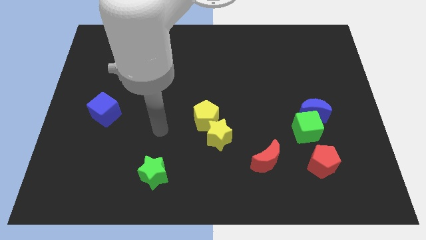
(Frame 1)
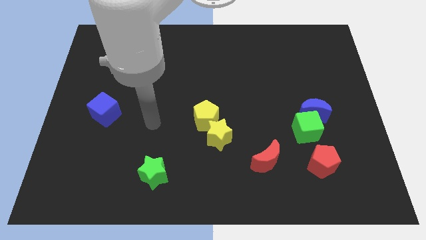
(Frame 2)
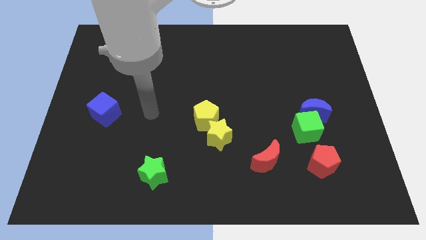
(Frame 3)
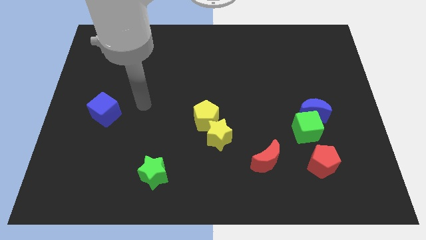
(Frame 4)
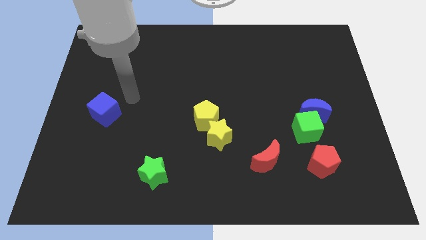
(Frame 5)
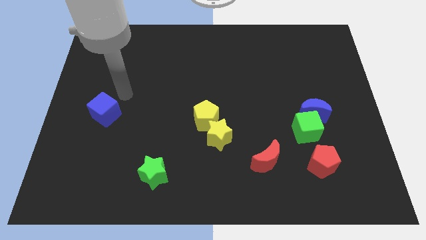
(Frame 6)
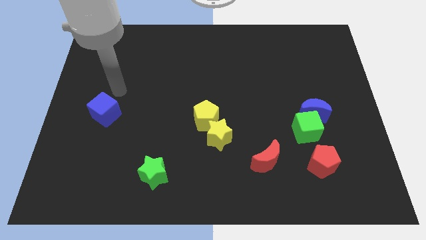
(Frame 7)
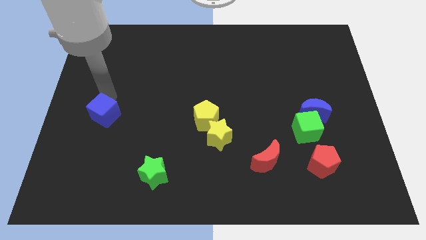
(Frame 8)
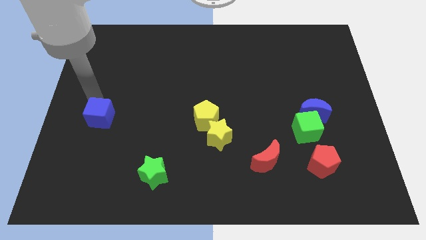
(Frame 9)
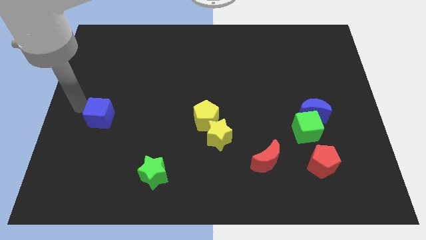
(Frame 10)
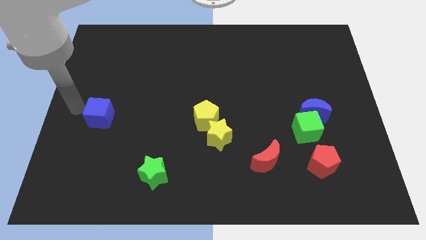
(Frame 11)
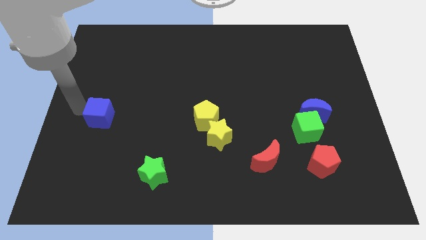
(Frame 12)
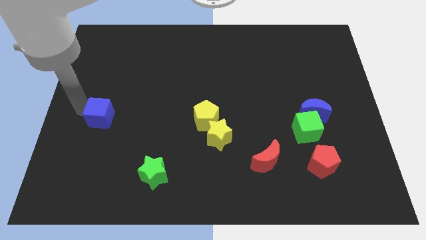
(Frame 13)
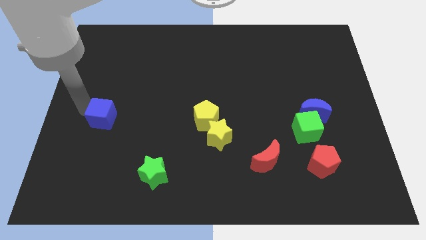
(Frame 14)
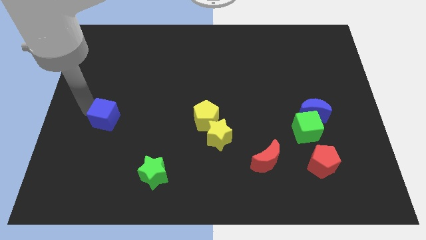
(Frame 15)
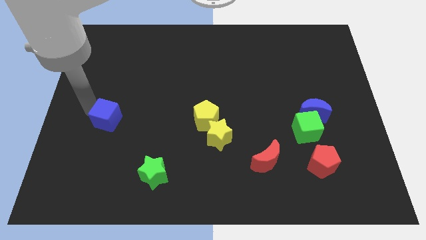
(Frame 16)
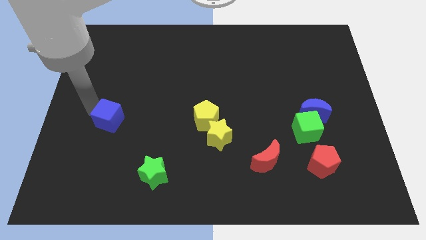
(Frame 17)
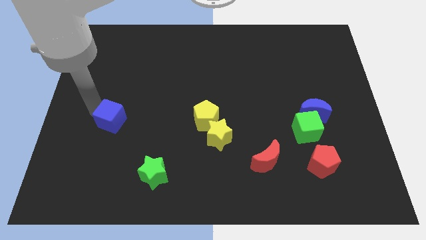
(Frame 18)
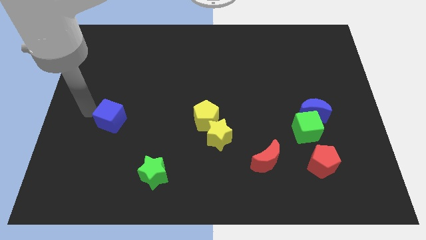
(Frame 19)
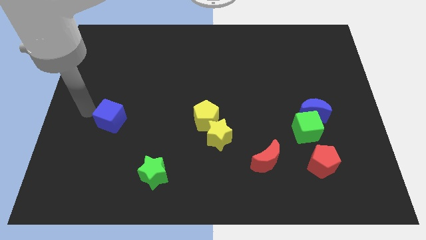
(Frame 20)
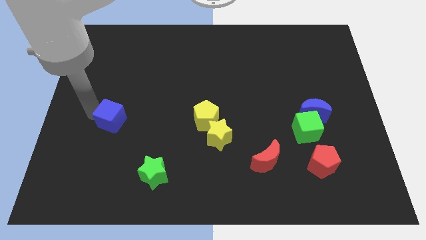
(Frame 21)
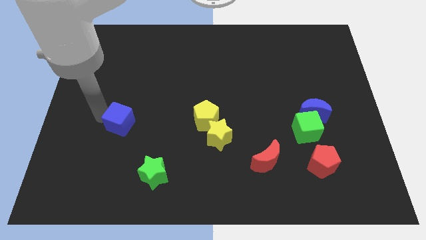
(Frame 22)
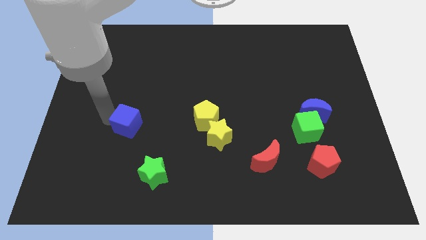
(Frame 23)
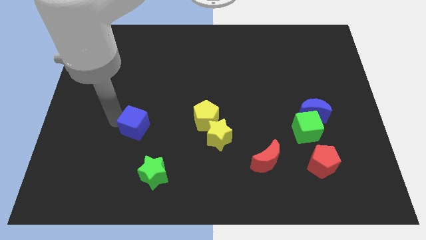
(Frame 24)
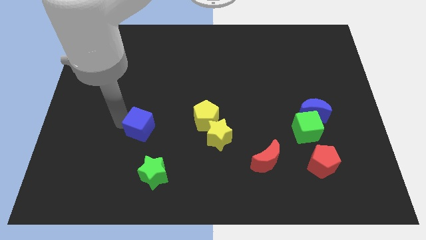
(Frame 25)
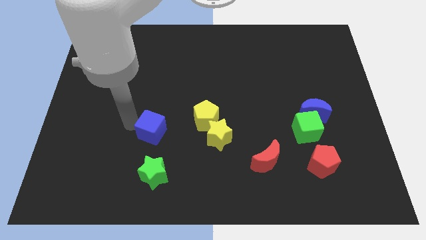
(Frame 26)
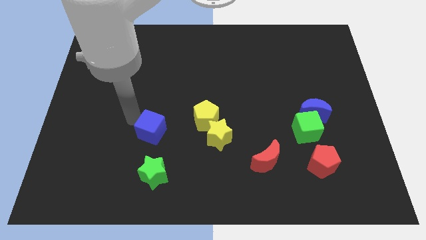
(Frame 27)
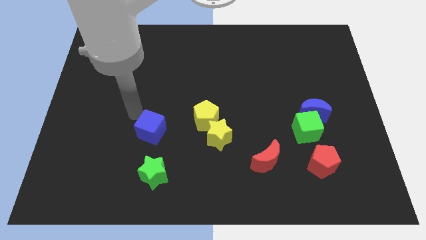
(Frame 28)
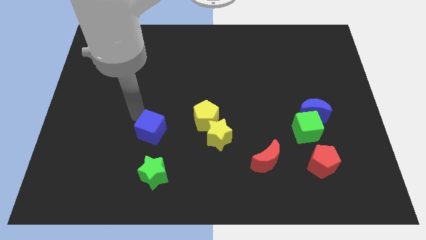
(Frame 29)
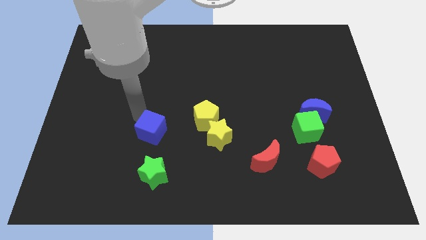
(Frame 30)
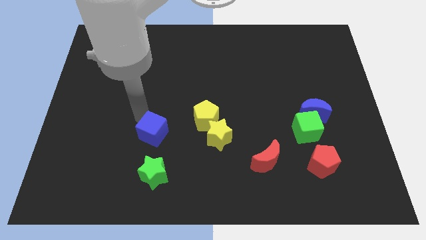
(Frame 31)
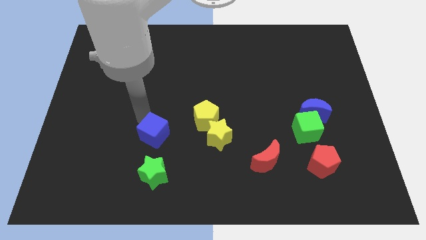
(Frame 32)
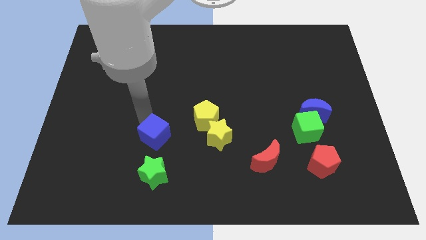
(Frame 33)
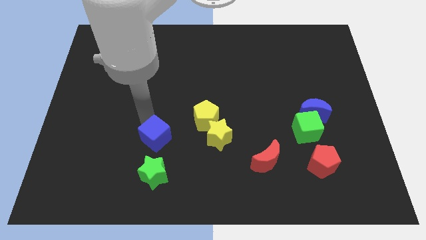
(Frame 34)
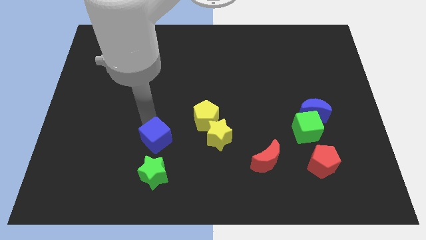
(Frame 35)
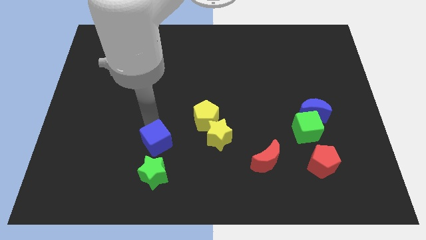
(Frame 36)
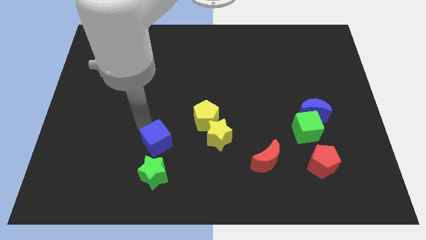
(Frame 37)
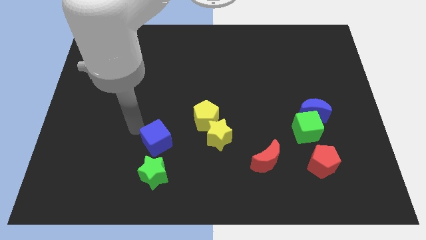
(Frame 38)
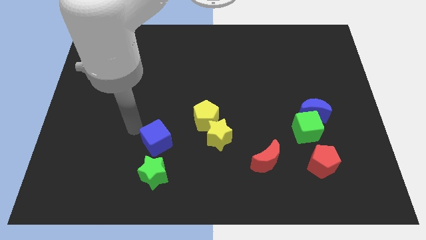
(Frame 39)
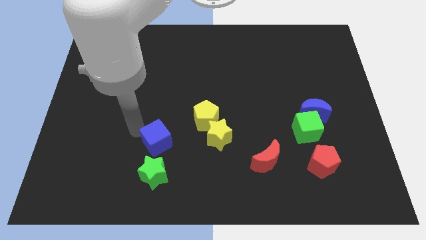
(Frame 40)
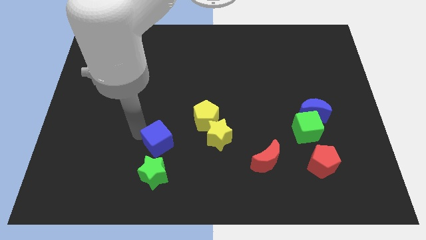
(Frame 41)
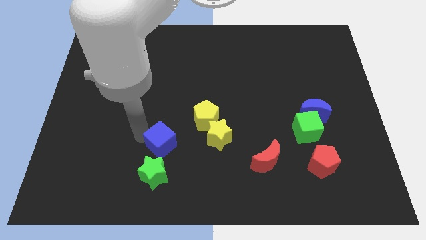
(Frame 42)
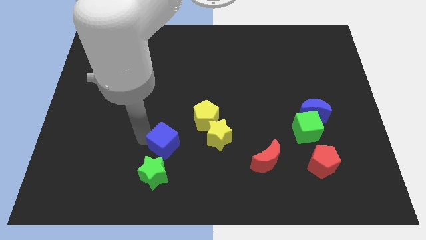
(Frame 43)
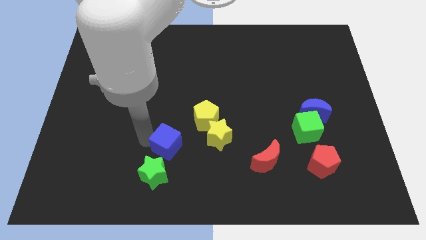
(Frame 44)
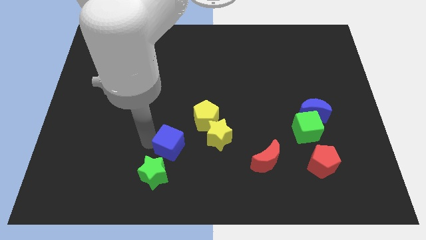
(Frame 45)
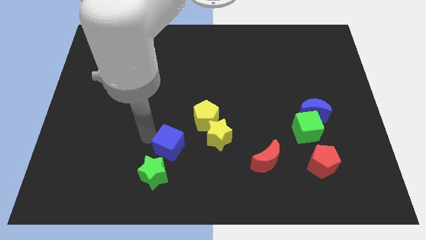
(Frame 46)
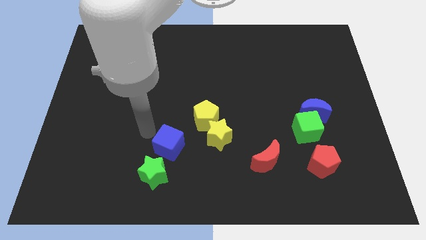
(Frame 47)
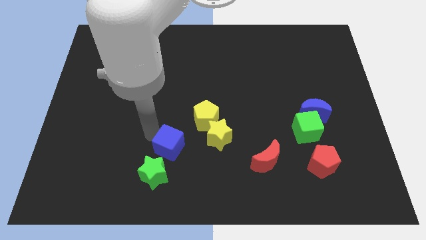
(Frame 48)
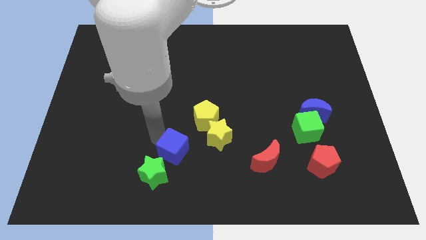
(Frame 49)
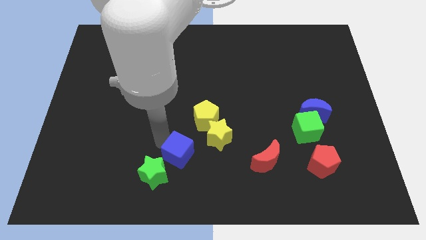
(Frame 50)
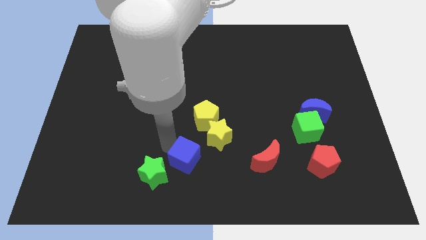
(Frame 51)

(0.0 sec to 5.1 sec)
put the blue cube to the bottom

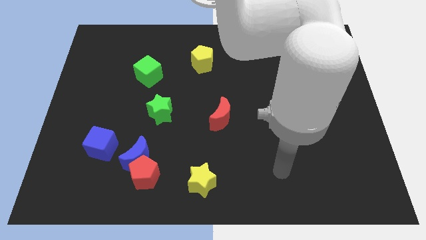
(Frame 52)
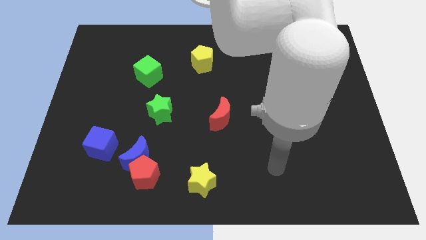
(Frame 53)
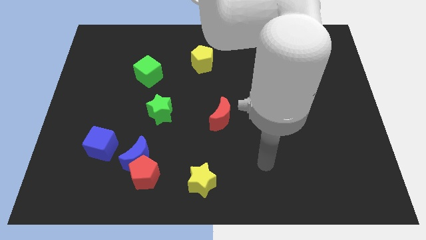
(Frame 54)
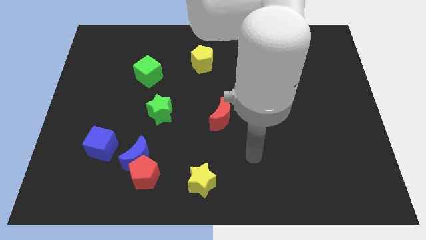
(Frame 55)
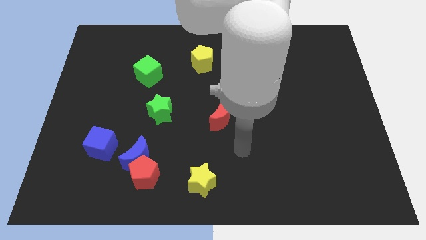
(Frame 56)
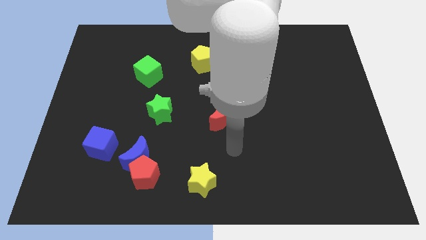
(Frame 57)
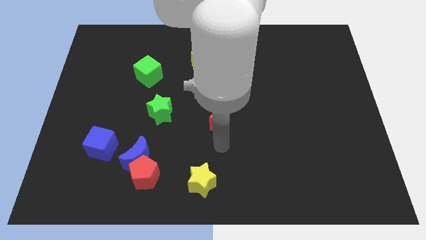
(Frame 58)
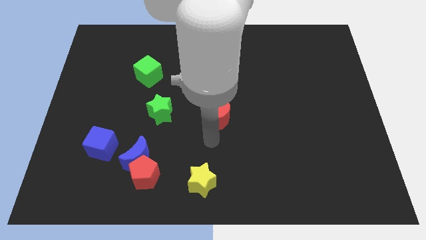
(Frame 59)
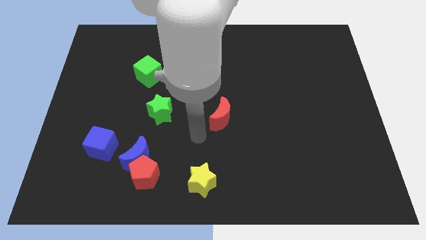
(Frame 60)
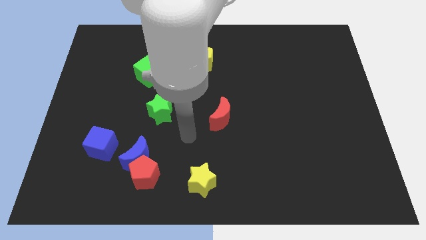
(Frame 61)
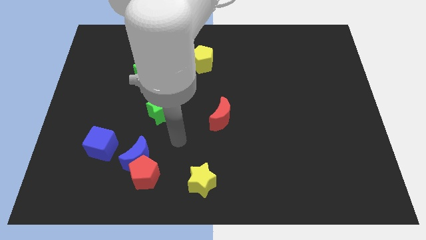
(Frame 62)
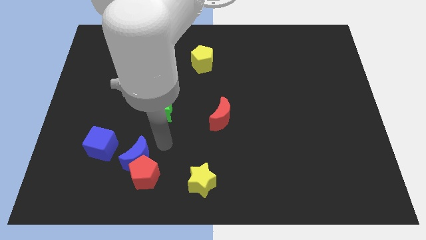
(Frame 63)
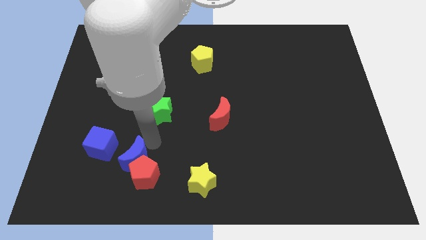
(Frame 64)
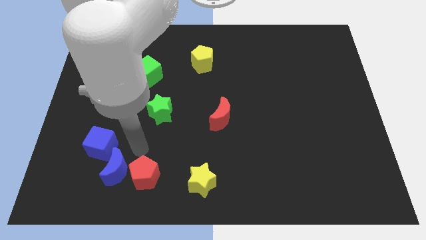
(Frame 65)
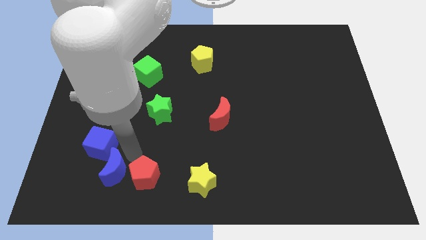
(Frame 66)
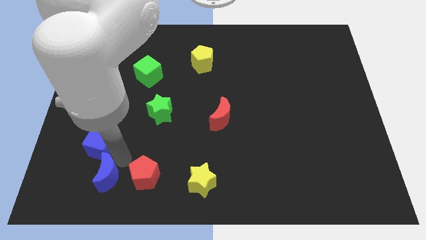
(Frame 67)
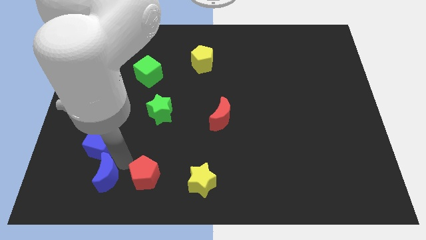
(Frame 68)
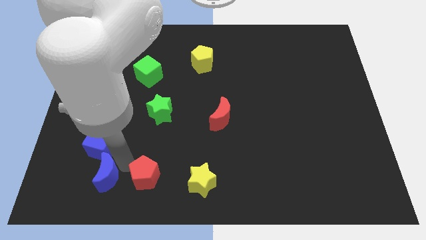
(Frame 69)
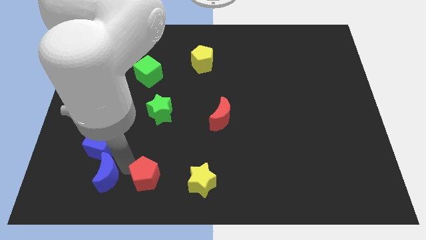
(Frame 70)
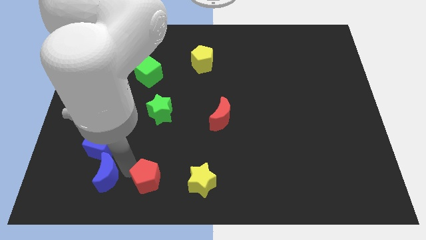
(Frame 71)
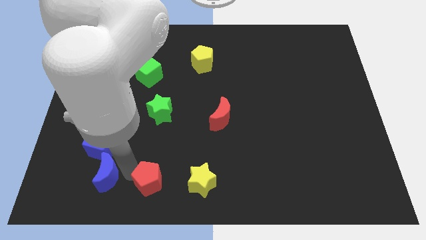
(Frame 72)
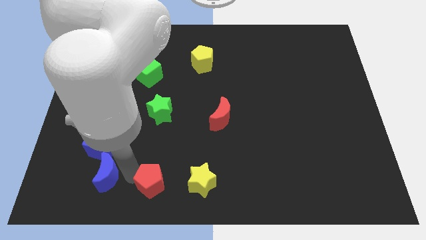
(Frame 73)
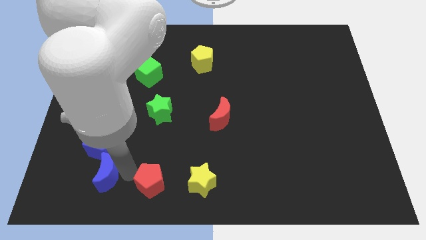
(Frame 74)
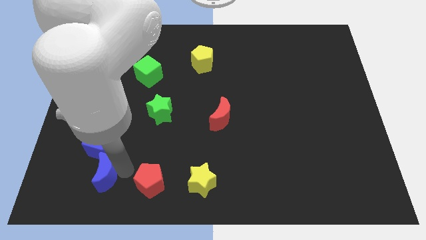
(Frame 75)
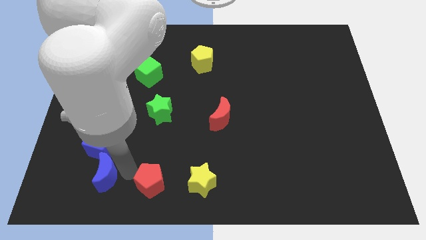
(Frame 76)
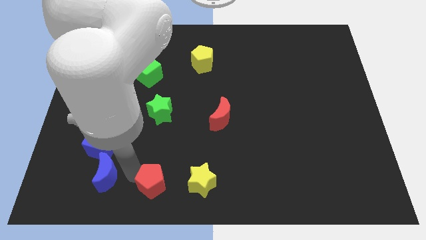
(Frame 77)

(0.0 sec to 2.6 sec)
move the red pentagon to the bottom side
